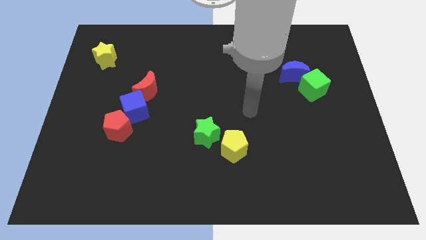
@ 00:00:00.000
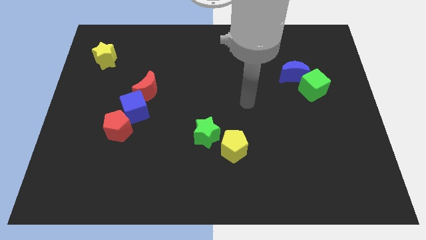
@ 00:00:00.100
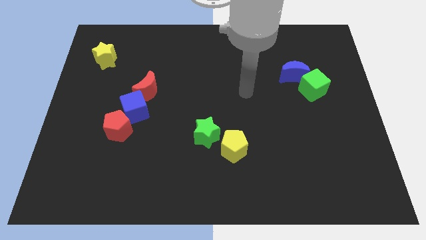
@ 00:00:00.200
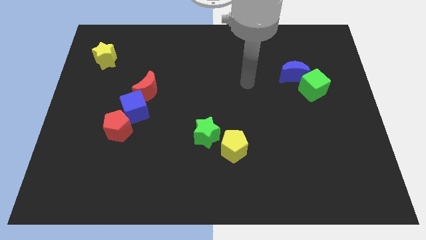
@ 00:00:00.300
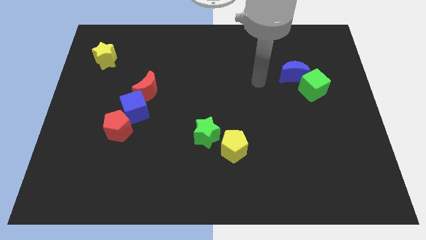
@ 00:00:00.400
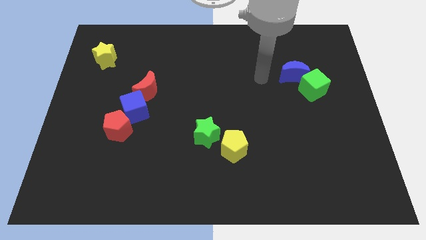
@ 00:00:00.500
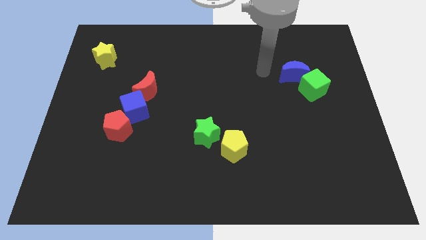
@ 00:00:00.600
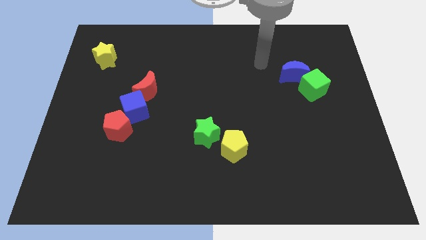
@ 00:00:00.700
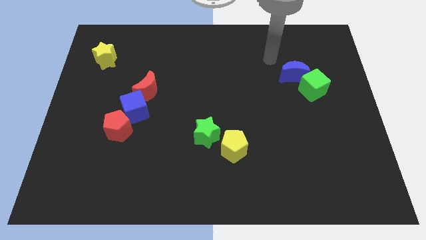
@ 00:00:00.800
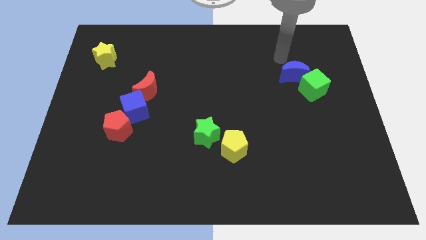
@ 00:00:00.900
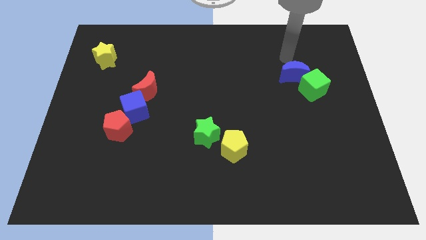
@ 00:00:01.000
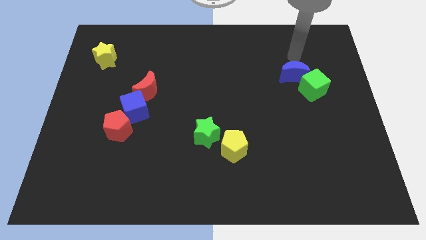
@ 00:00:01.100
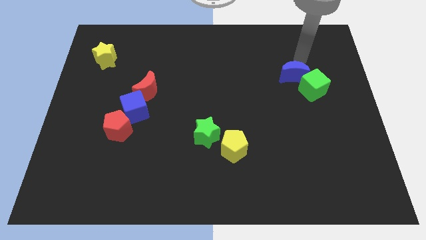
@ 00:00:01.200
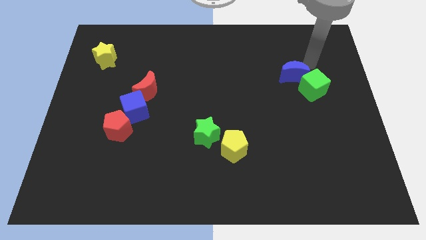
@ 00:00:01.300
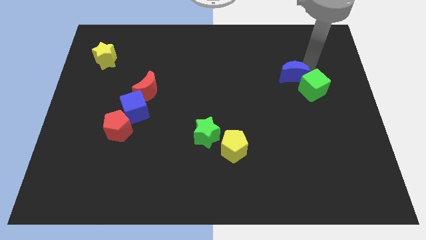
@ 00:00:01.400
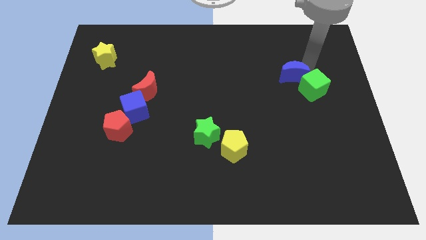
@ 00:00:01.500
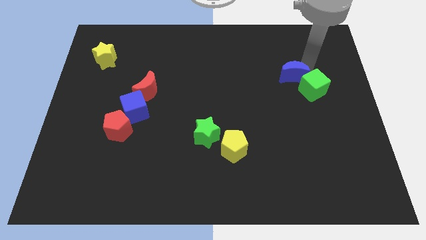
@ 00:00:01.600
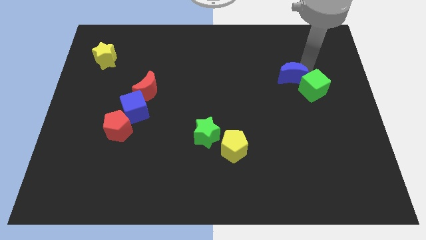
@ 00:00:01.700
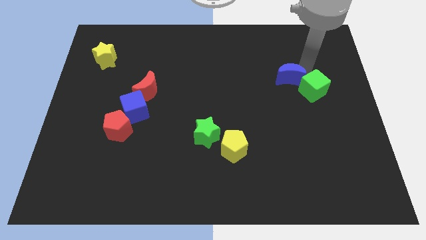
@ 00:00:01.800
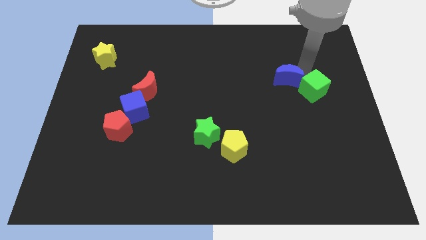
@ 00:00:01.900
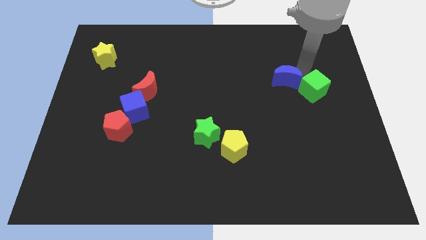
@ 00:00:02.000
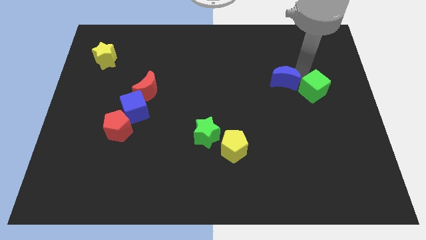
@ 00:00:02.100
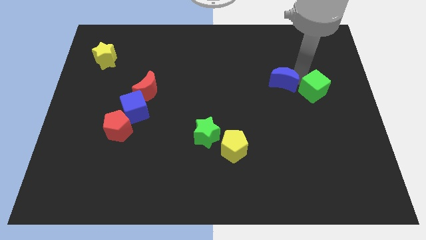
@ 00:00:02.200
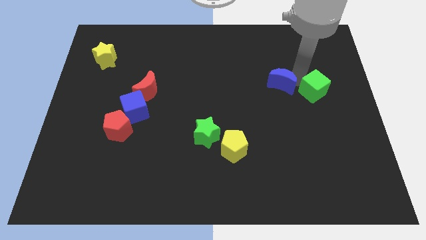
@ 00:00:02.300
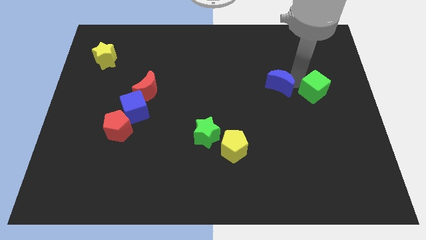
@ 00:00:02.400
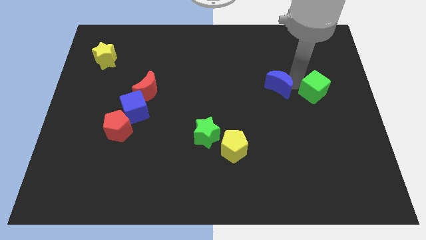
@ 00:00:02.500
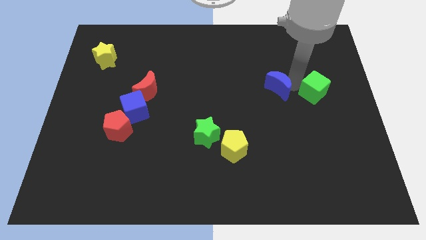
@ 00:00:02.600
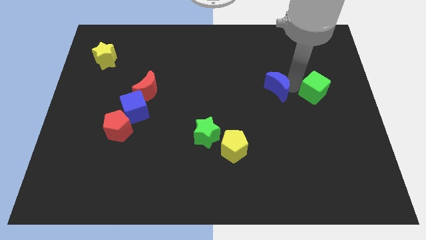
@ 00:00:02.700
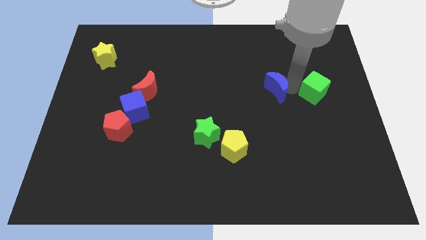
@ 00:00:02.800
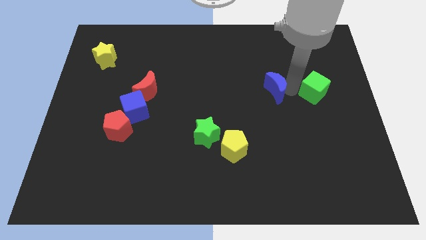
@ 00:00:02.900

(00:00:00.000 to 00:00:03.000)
move the blue moon diagonally down and left a bit

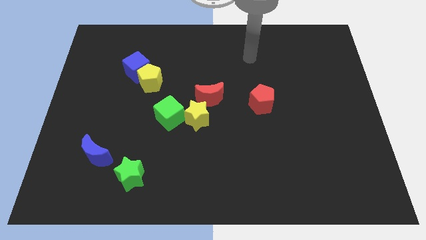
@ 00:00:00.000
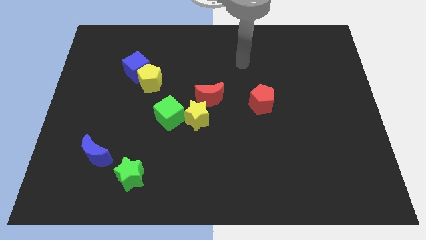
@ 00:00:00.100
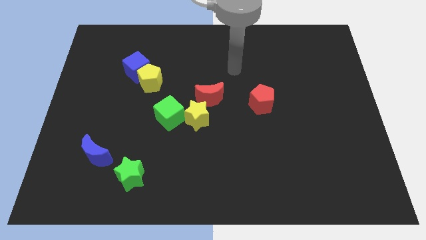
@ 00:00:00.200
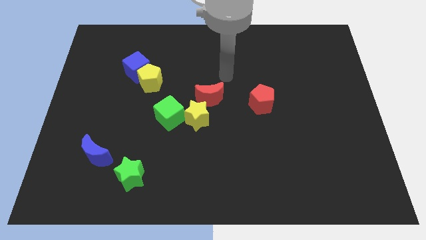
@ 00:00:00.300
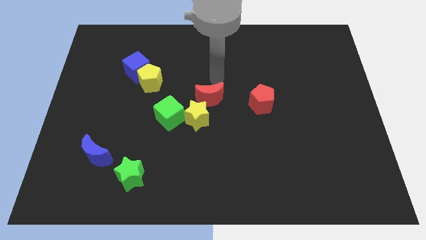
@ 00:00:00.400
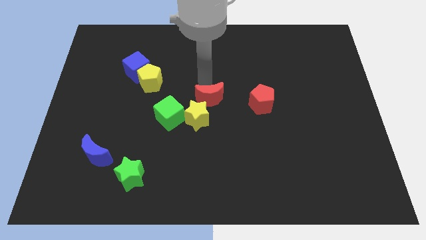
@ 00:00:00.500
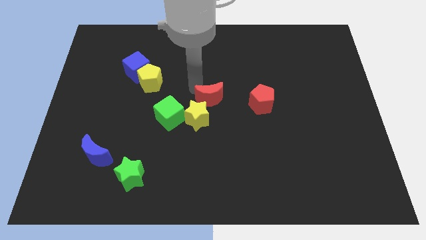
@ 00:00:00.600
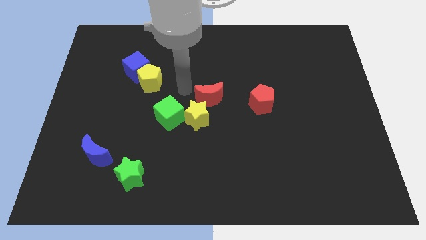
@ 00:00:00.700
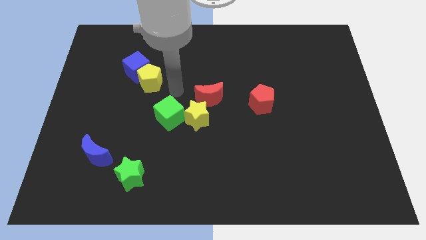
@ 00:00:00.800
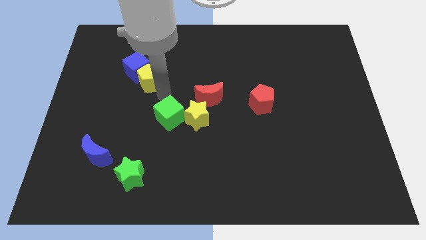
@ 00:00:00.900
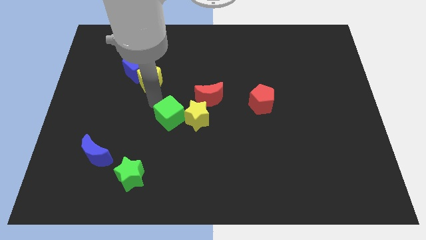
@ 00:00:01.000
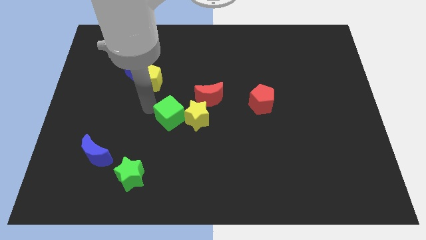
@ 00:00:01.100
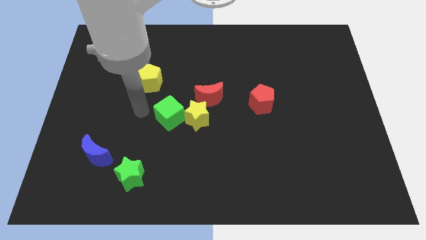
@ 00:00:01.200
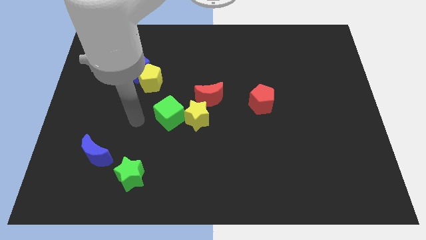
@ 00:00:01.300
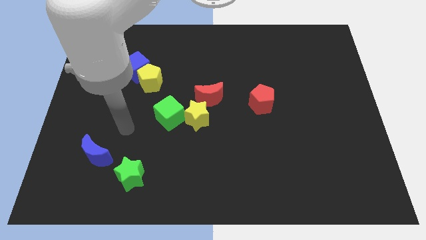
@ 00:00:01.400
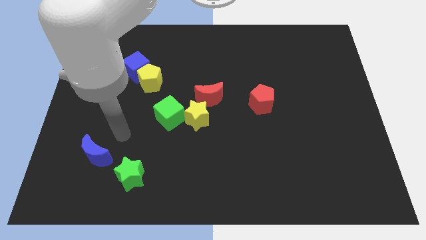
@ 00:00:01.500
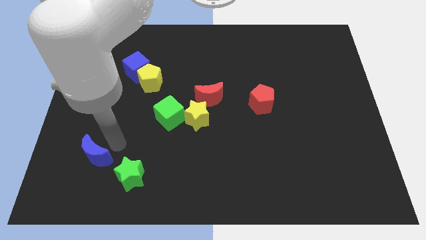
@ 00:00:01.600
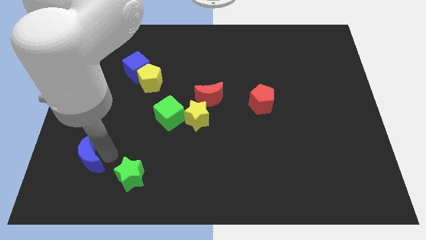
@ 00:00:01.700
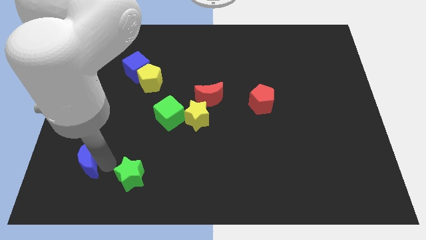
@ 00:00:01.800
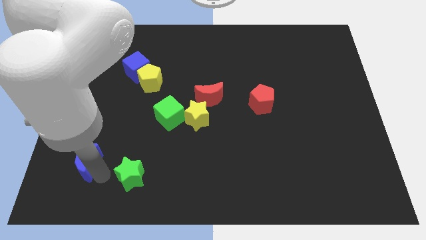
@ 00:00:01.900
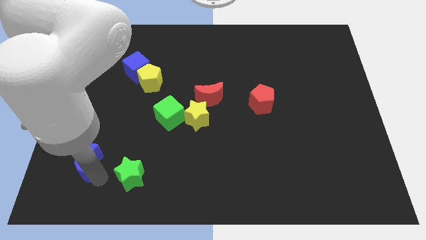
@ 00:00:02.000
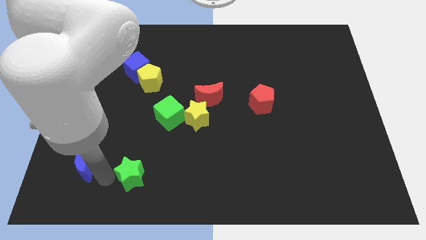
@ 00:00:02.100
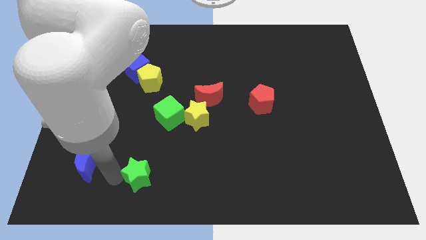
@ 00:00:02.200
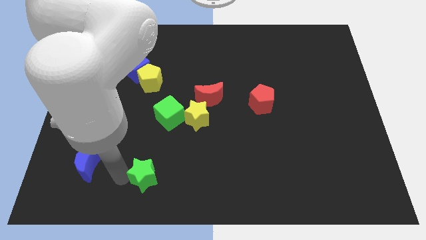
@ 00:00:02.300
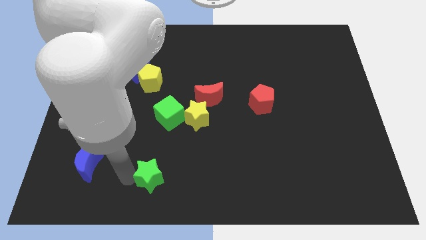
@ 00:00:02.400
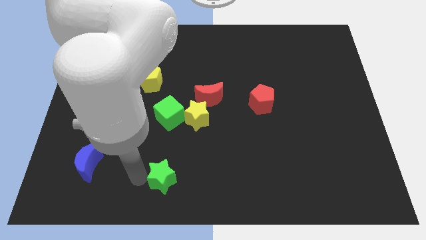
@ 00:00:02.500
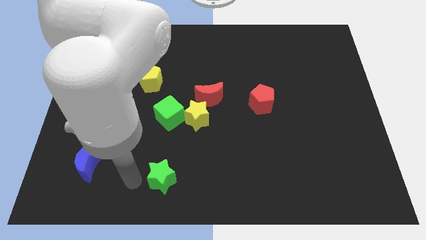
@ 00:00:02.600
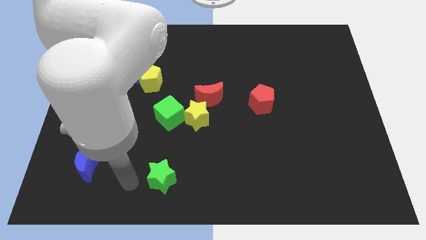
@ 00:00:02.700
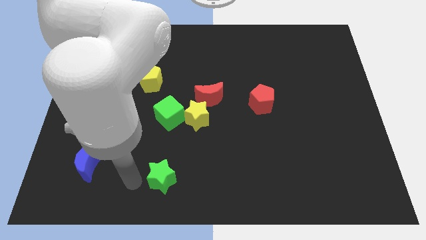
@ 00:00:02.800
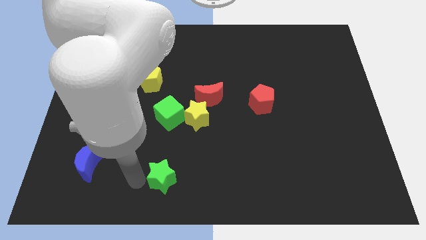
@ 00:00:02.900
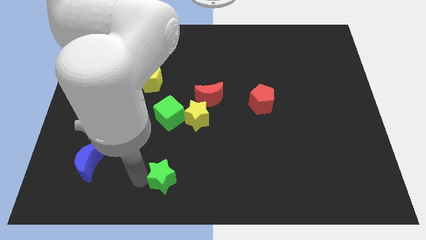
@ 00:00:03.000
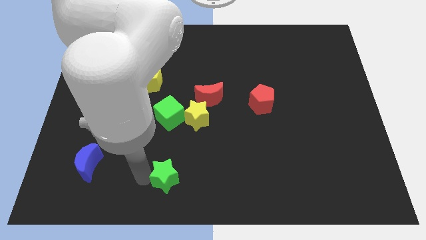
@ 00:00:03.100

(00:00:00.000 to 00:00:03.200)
slightly push the green star to the right

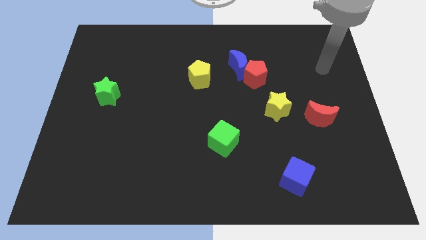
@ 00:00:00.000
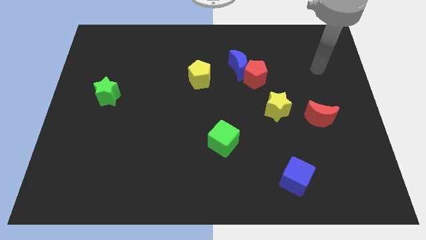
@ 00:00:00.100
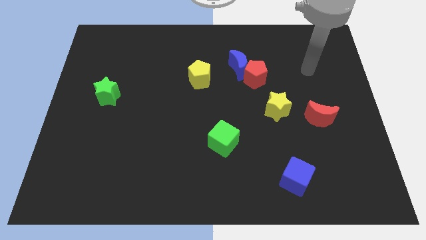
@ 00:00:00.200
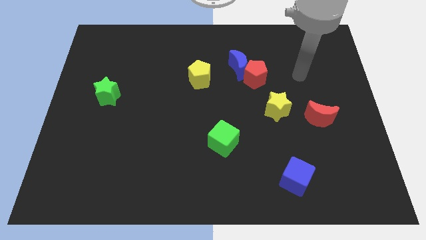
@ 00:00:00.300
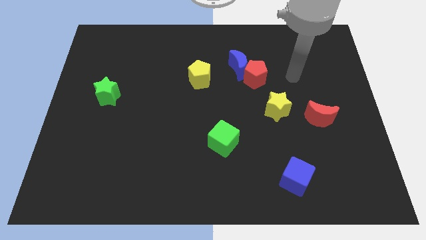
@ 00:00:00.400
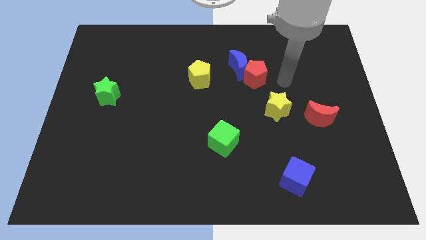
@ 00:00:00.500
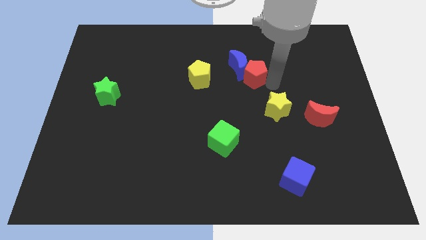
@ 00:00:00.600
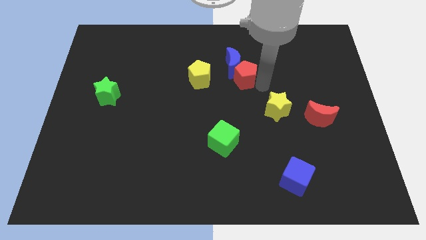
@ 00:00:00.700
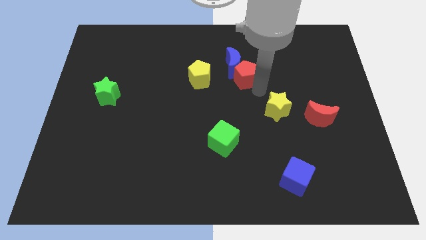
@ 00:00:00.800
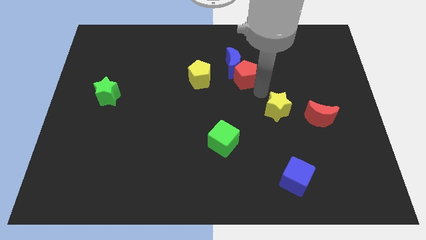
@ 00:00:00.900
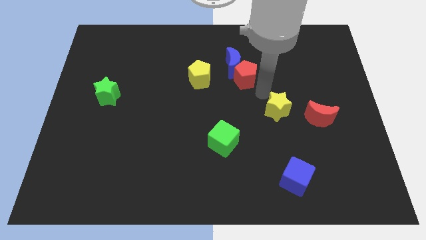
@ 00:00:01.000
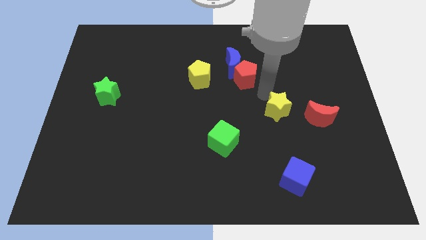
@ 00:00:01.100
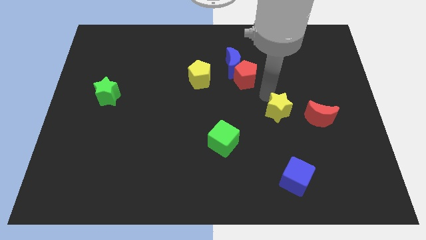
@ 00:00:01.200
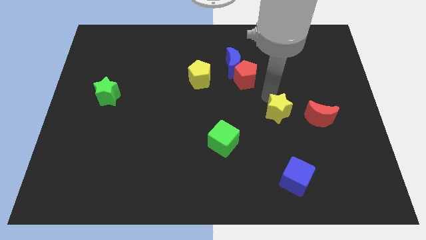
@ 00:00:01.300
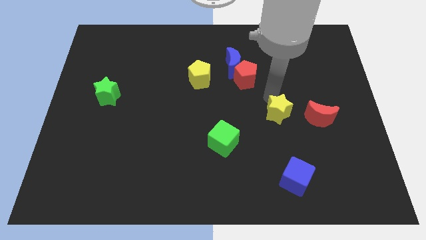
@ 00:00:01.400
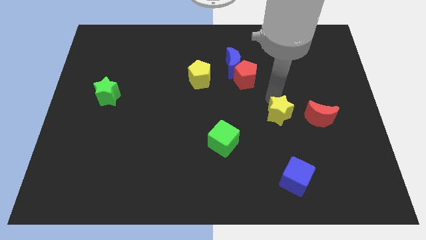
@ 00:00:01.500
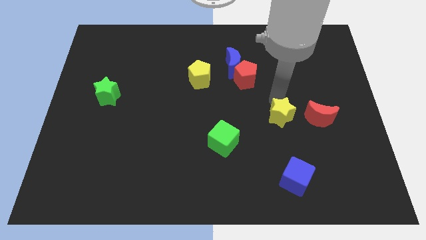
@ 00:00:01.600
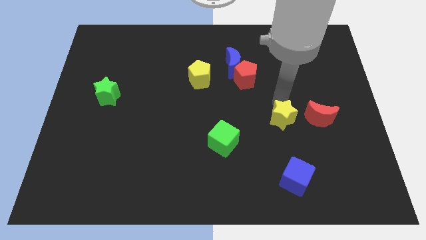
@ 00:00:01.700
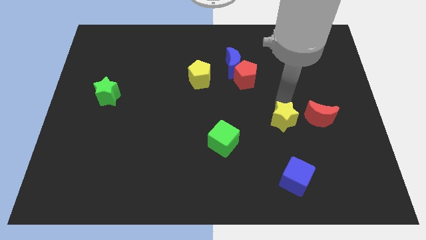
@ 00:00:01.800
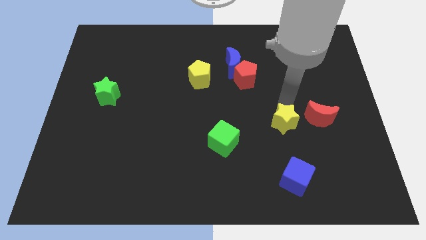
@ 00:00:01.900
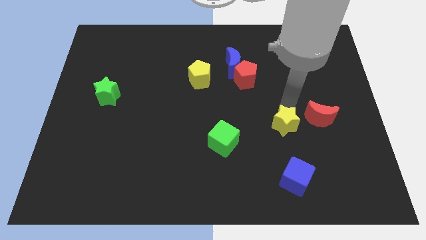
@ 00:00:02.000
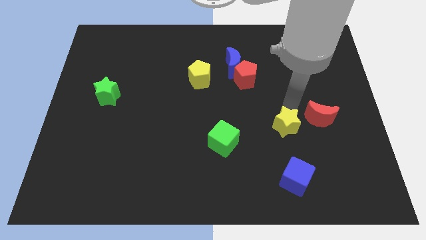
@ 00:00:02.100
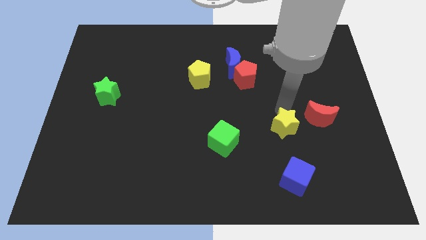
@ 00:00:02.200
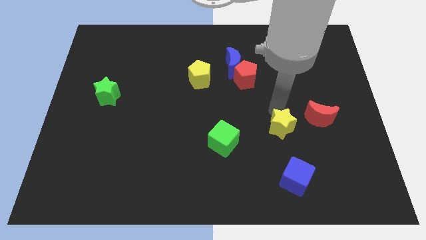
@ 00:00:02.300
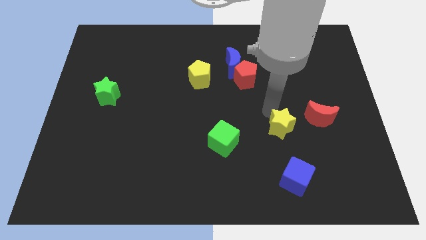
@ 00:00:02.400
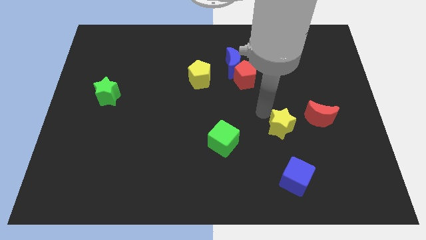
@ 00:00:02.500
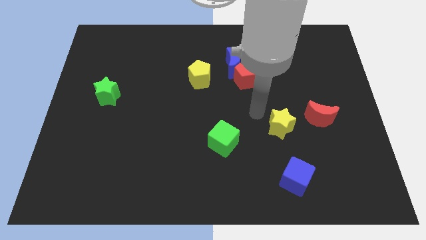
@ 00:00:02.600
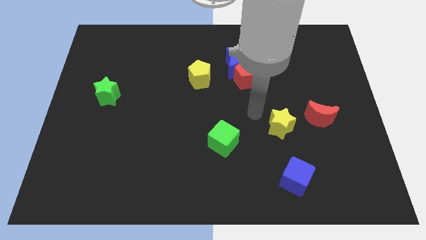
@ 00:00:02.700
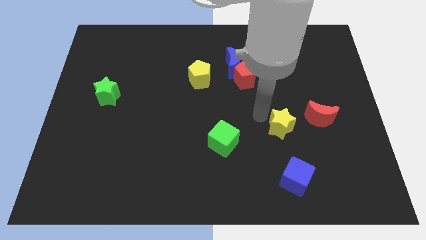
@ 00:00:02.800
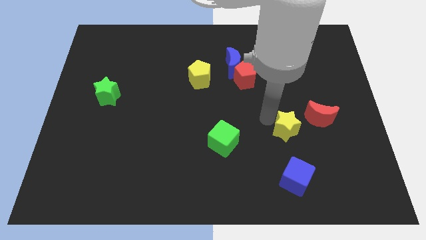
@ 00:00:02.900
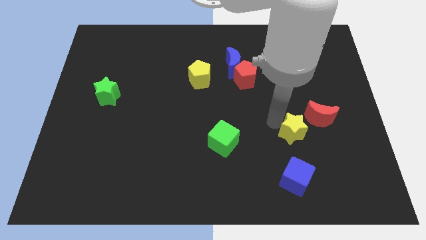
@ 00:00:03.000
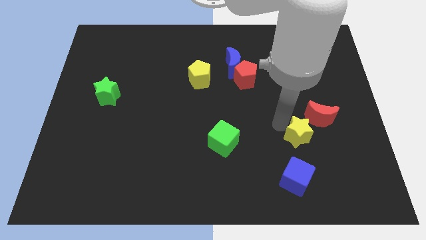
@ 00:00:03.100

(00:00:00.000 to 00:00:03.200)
push the yellow star somewhat downwards and then right
